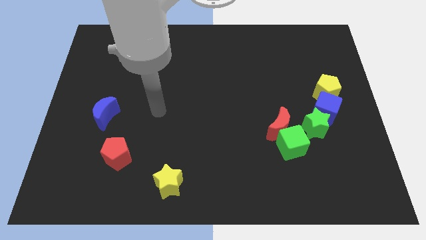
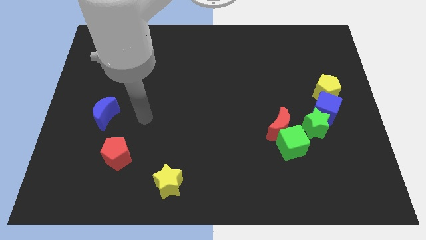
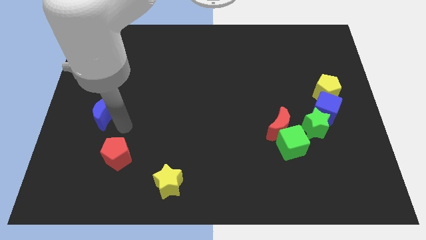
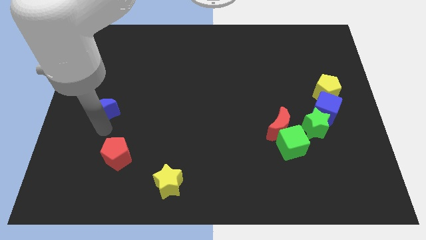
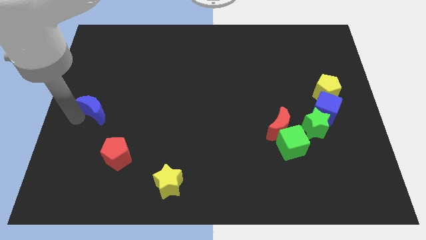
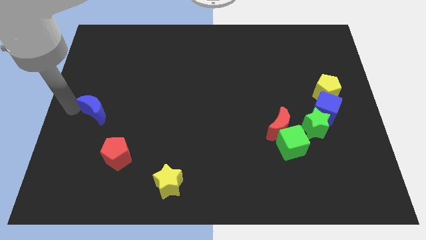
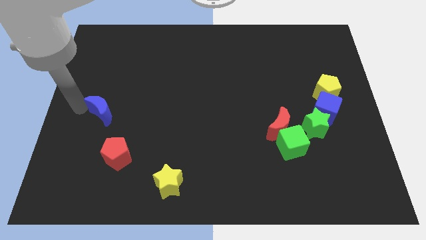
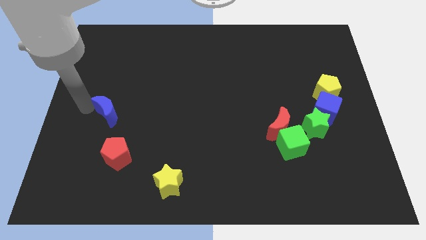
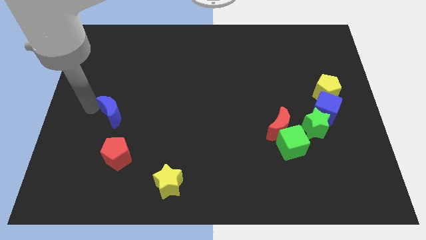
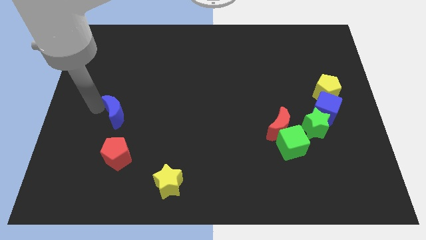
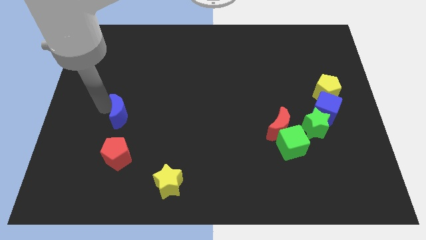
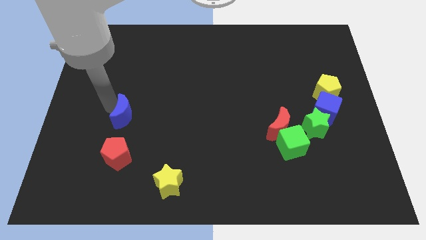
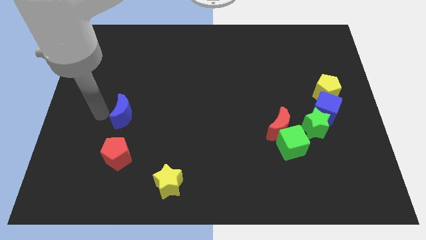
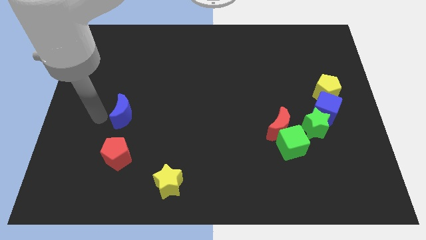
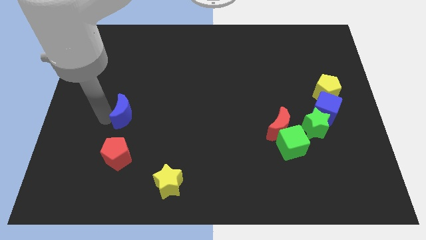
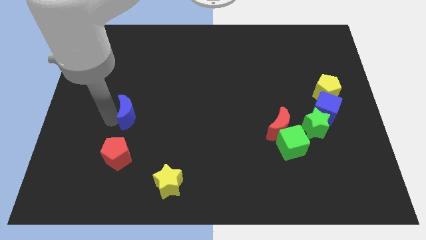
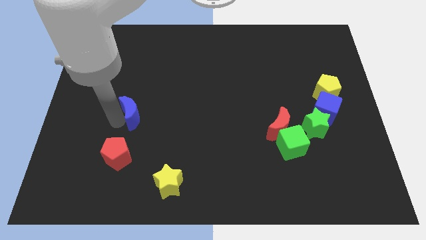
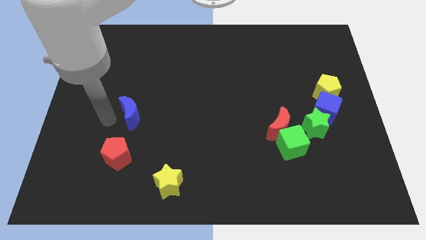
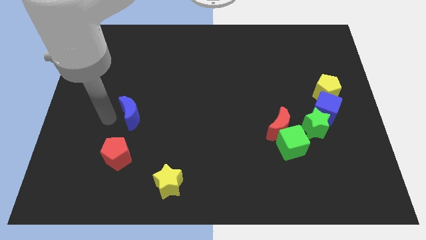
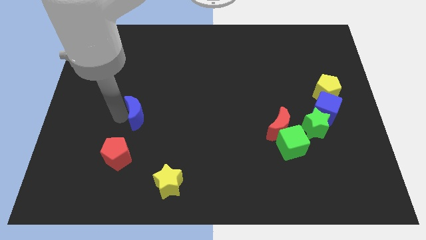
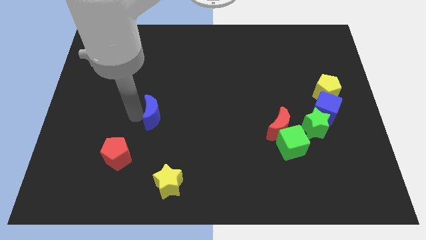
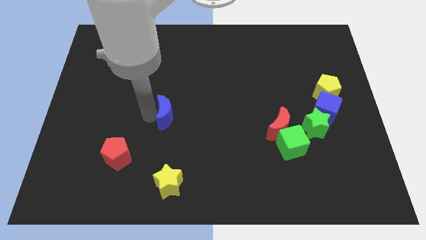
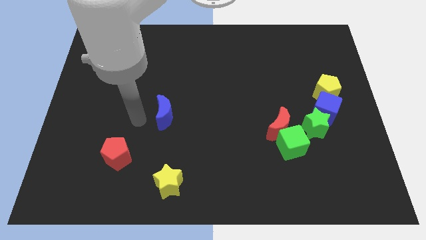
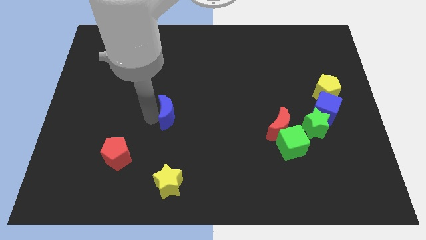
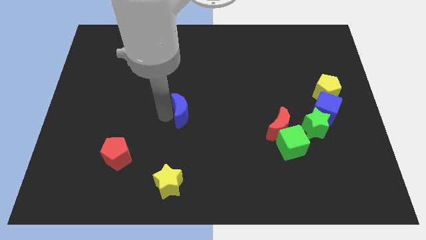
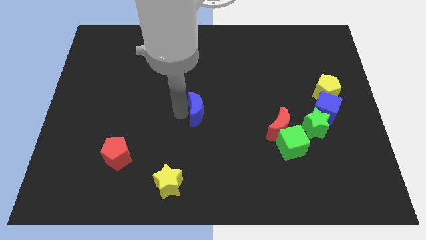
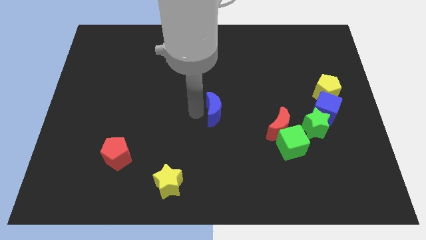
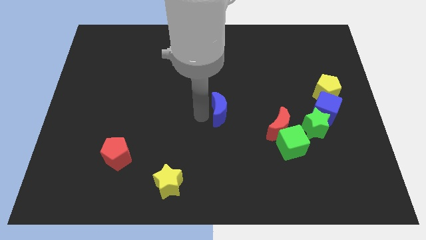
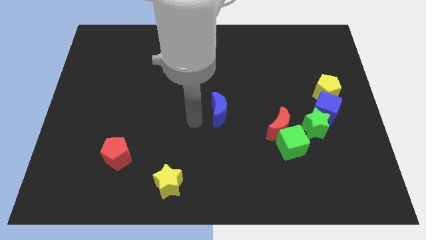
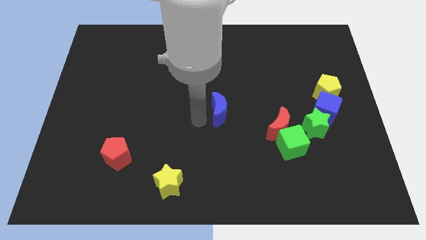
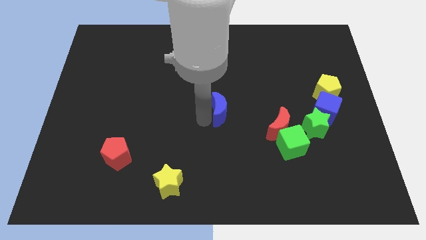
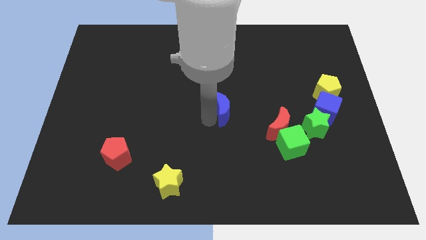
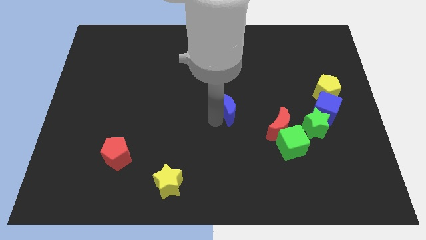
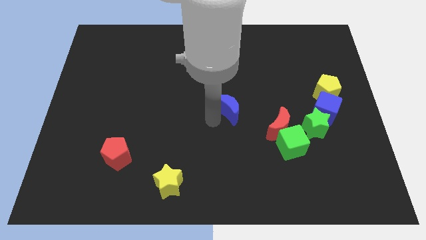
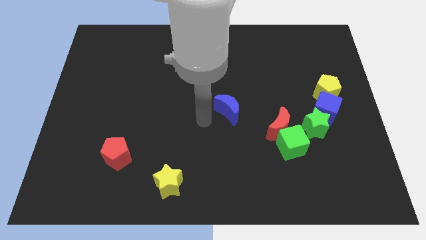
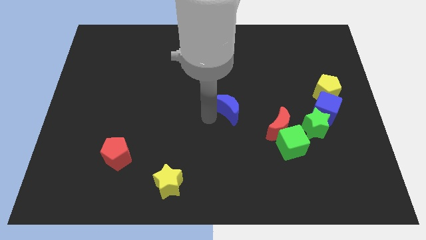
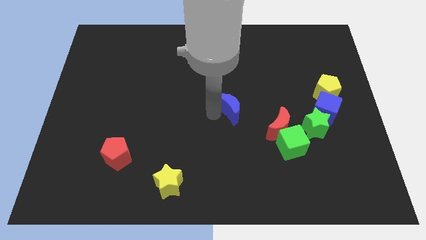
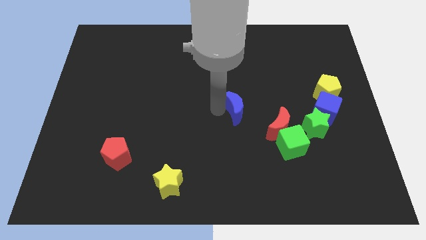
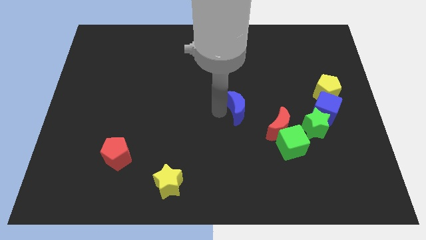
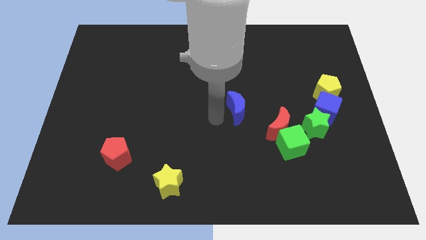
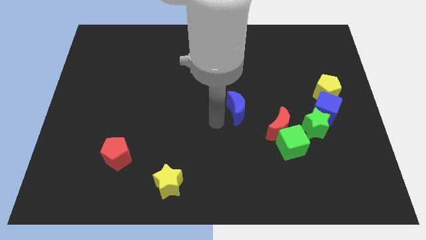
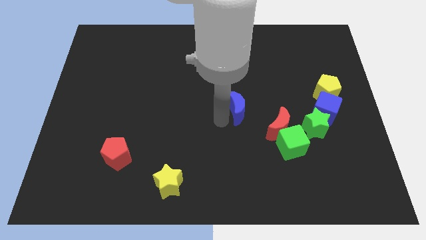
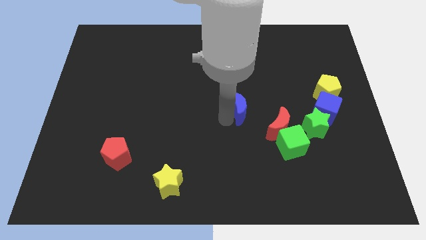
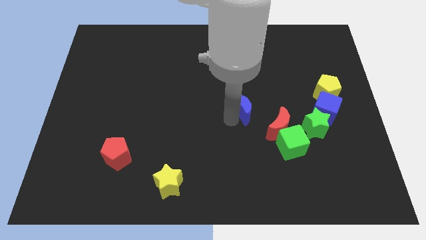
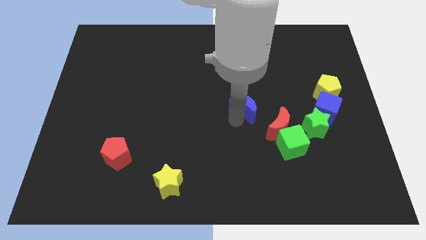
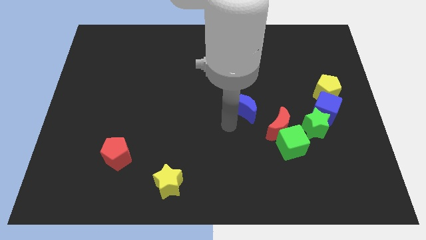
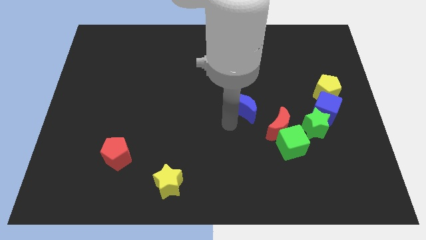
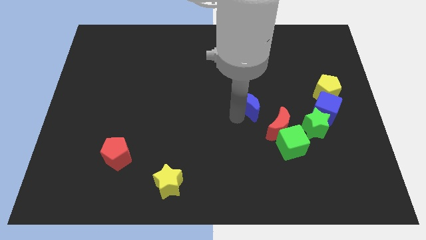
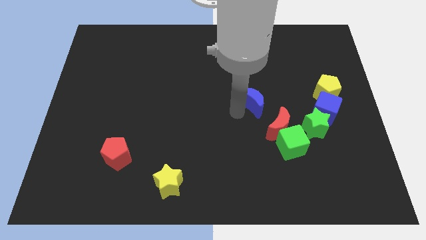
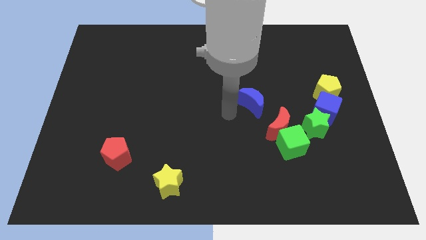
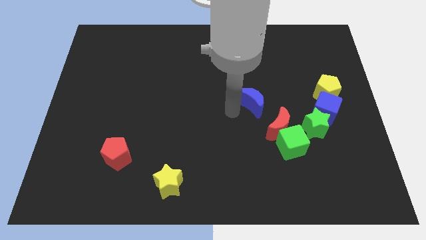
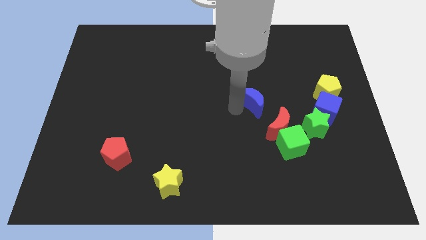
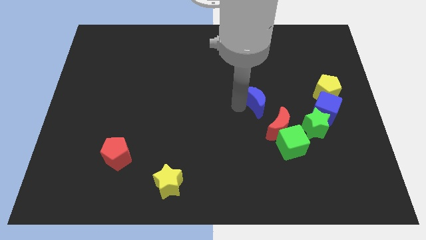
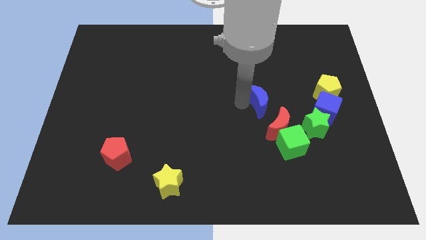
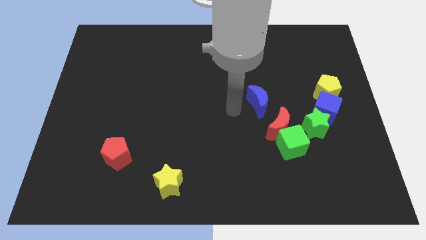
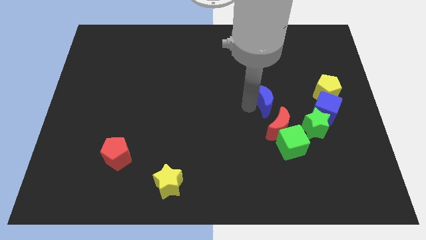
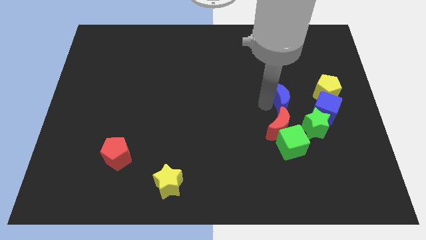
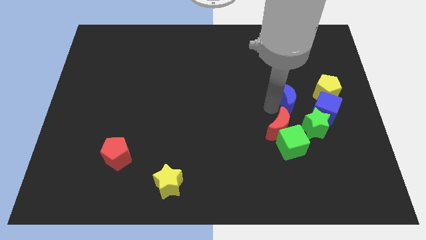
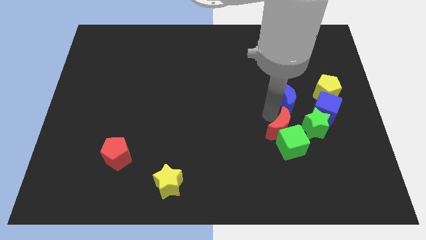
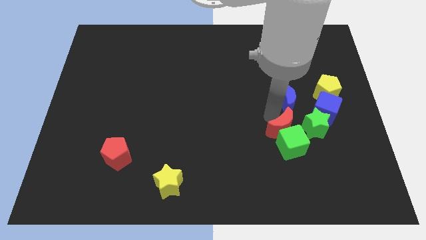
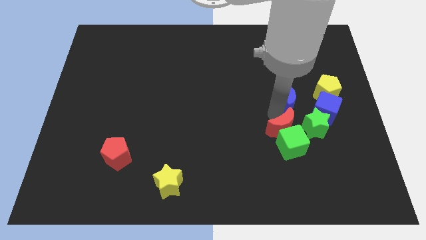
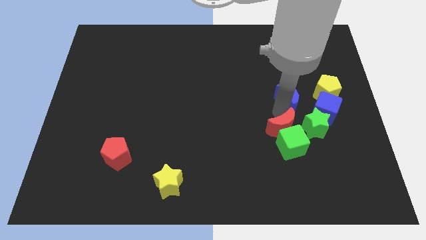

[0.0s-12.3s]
push the blue moon to the top of the green star

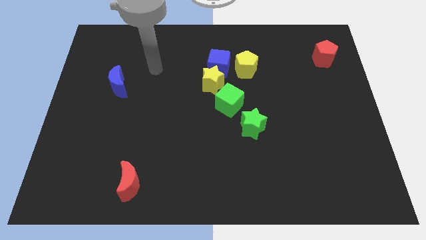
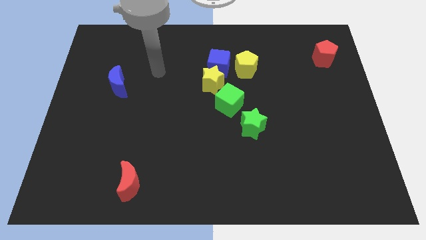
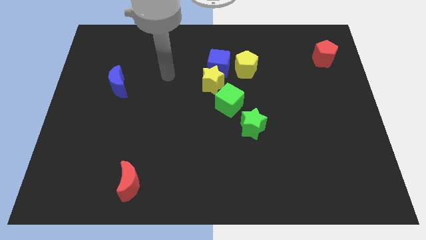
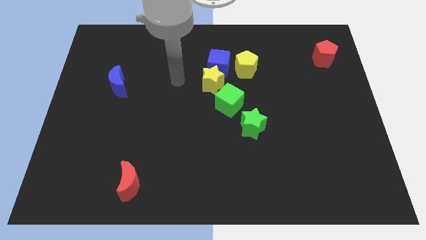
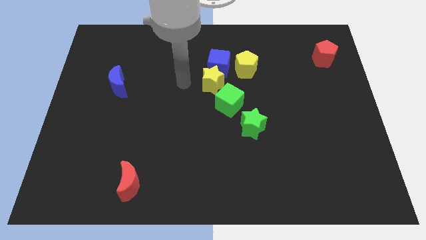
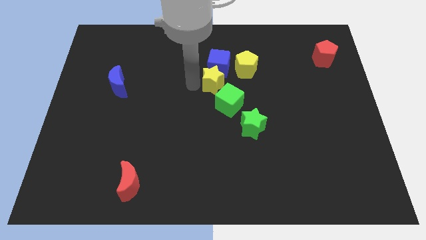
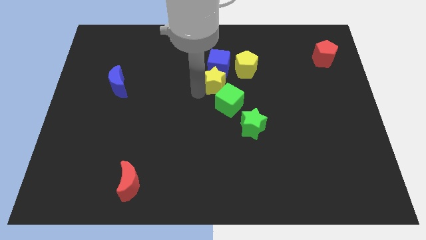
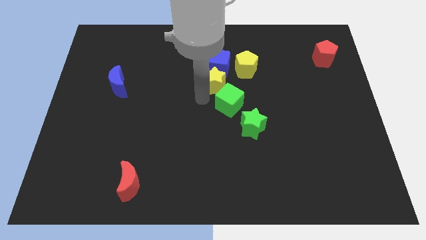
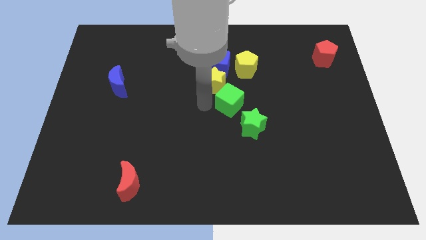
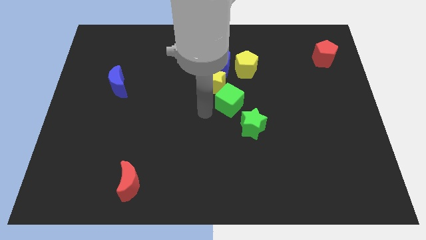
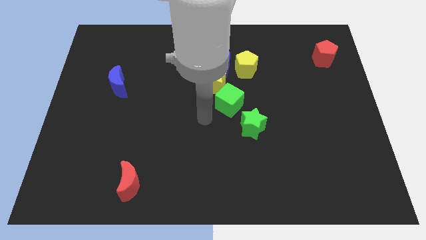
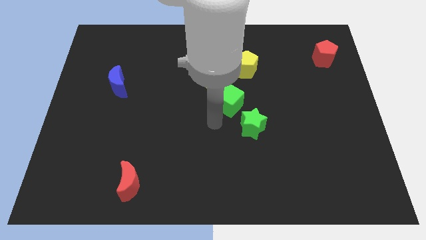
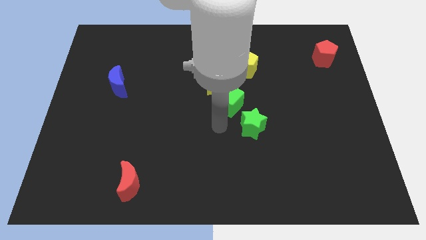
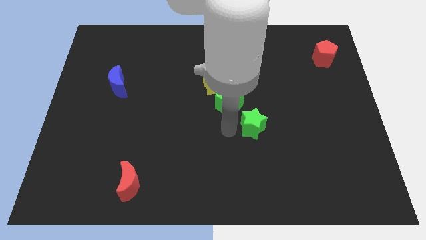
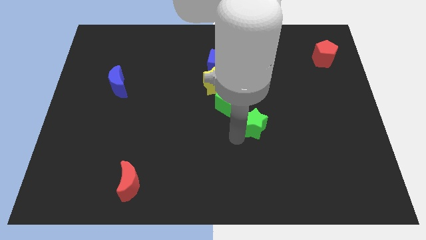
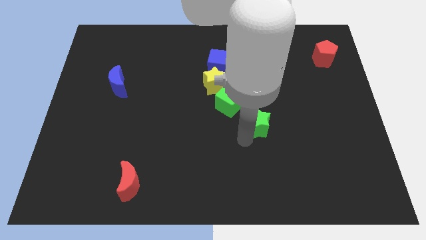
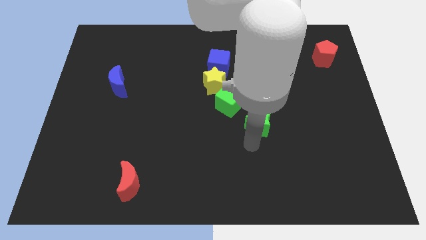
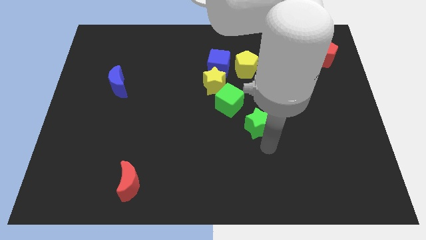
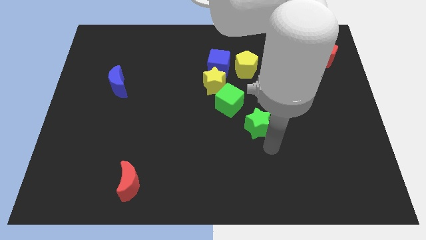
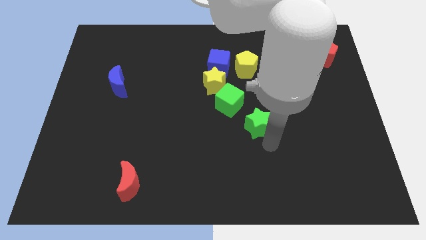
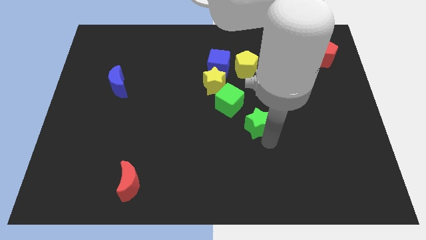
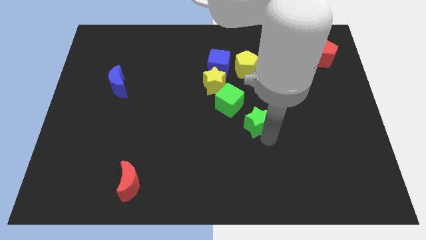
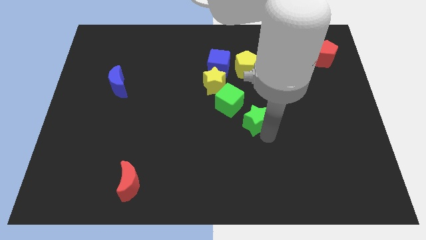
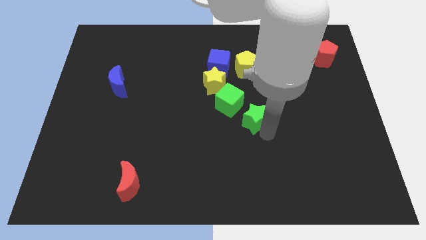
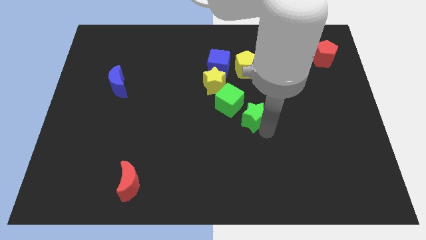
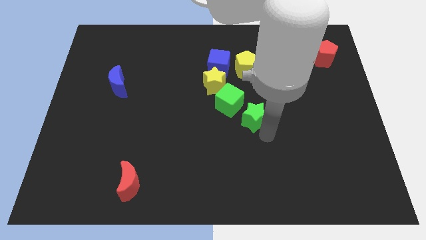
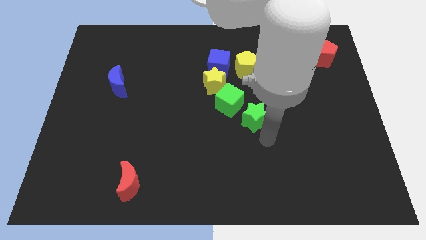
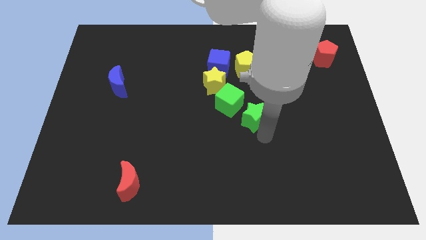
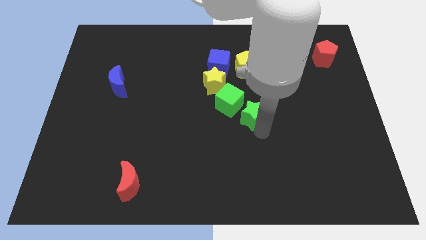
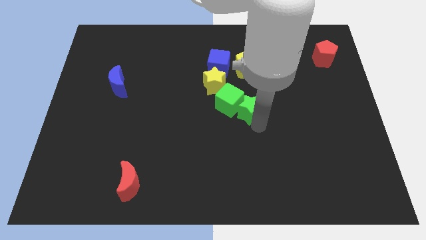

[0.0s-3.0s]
put the green star to the bottom right of the yellow star
